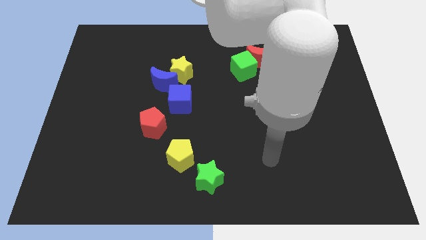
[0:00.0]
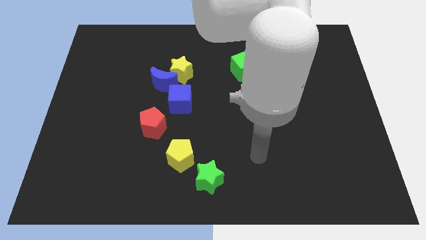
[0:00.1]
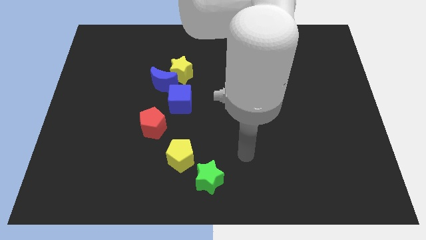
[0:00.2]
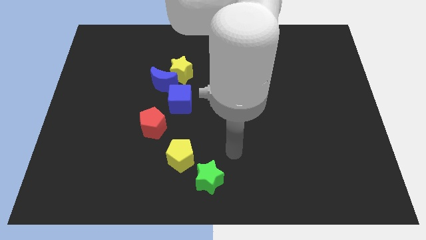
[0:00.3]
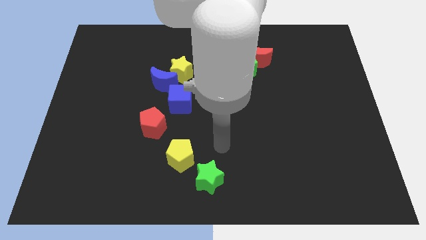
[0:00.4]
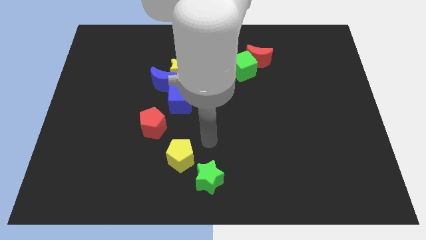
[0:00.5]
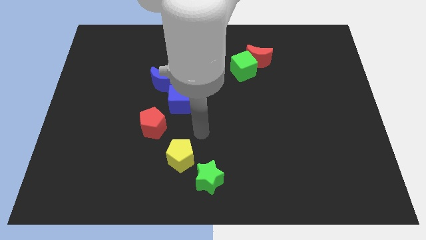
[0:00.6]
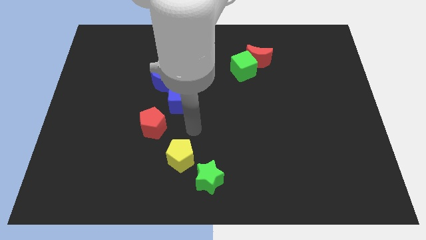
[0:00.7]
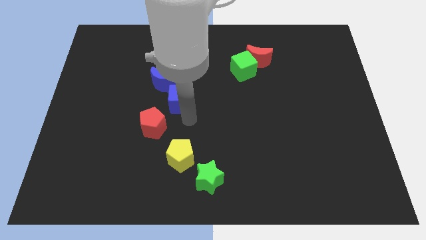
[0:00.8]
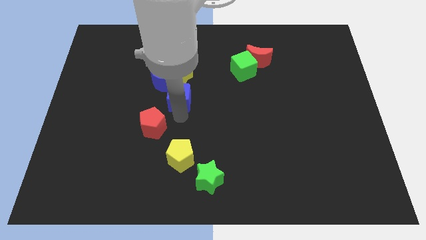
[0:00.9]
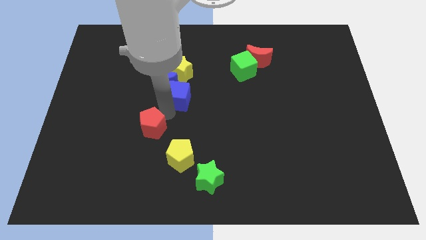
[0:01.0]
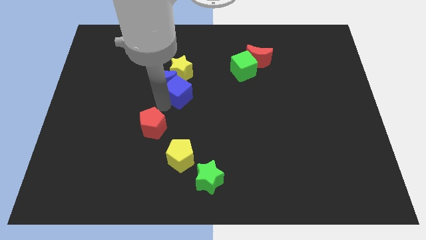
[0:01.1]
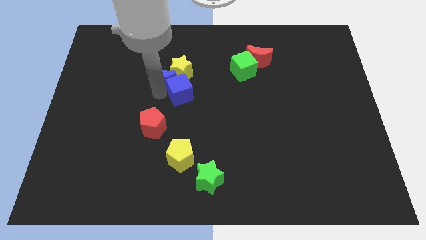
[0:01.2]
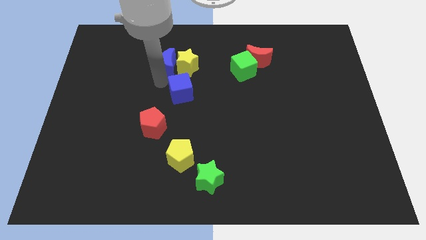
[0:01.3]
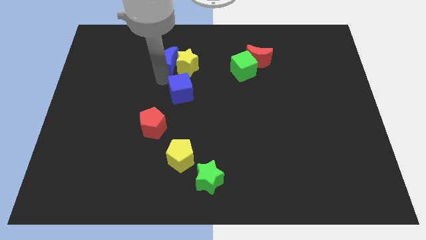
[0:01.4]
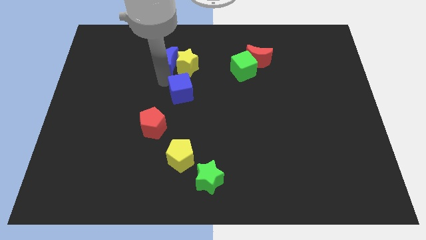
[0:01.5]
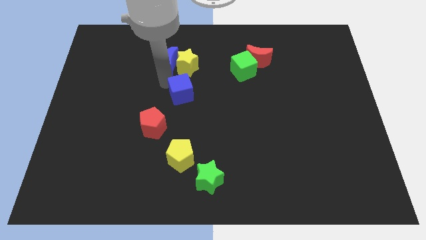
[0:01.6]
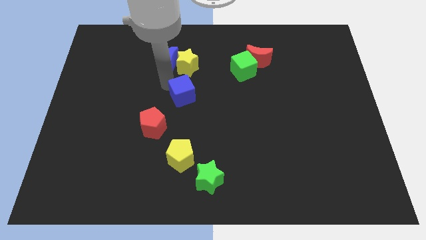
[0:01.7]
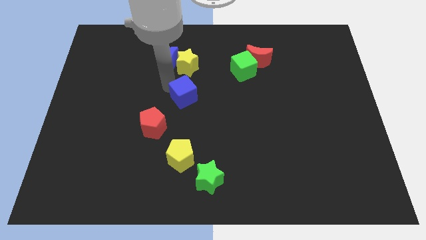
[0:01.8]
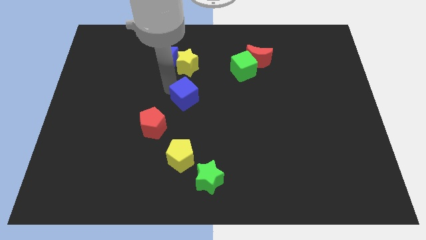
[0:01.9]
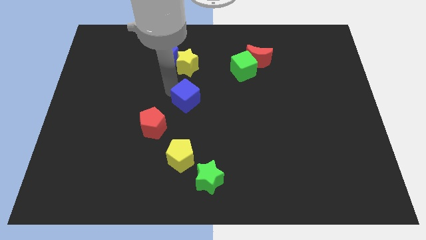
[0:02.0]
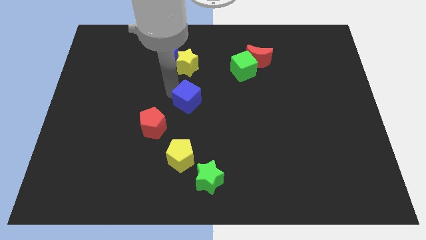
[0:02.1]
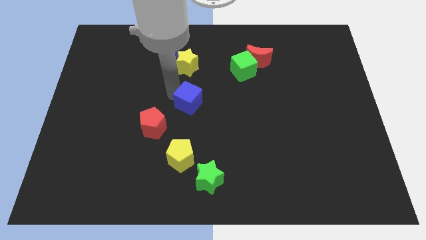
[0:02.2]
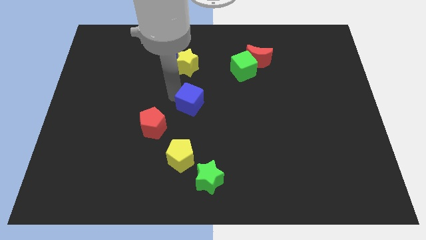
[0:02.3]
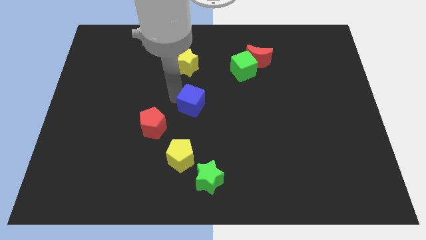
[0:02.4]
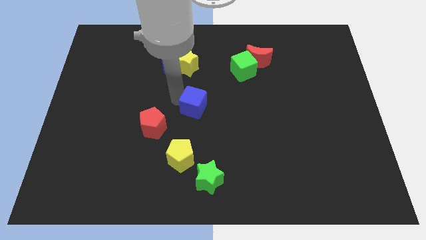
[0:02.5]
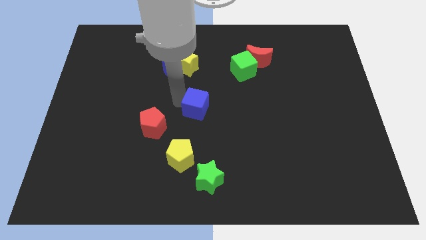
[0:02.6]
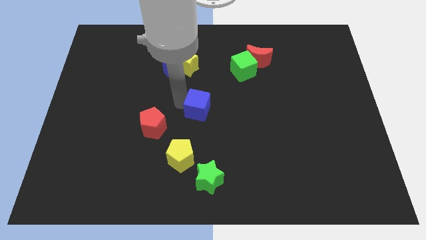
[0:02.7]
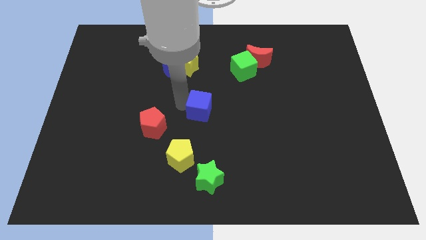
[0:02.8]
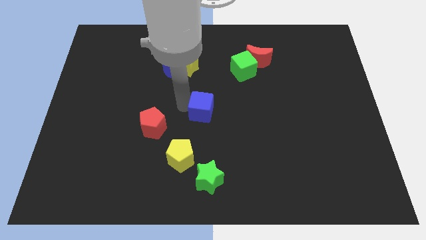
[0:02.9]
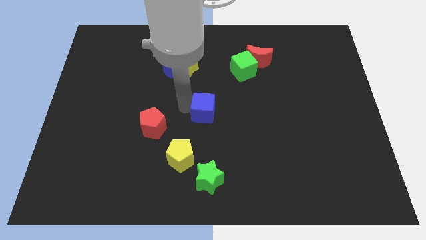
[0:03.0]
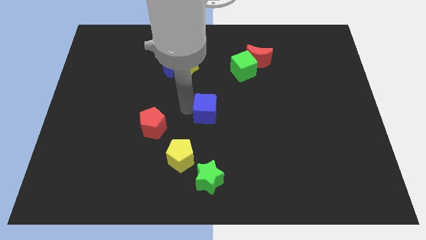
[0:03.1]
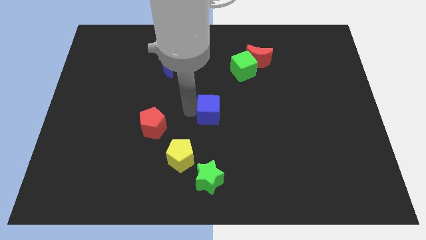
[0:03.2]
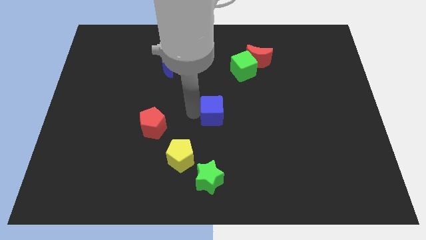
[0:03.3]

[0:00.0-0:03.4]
push the blue cube right slightly

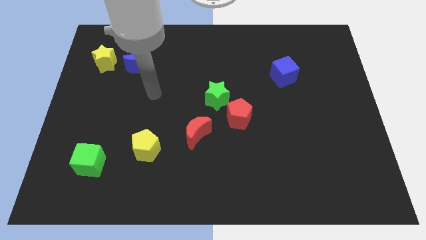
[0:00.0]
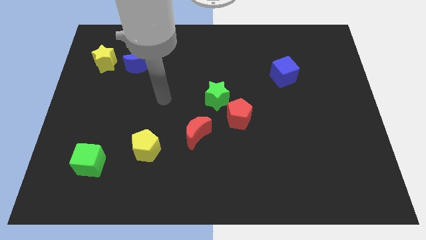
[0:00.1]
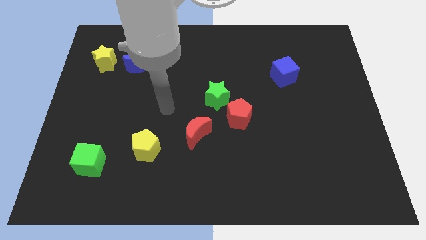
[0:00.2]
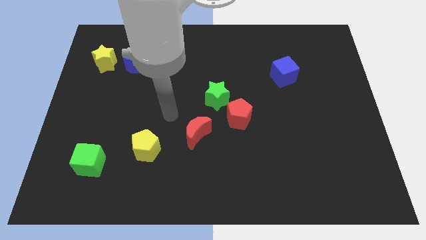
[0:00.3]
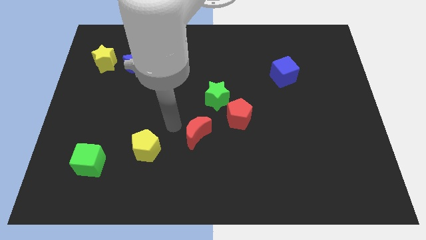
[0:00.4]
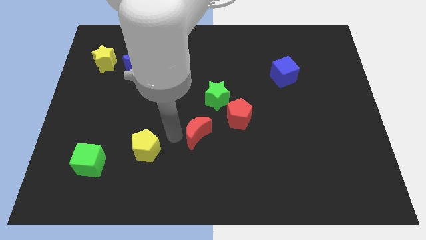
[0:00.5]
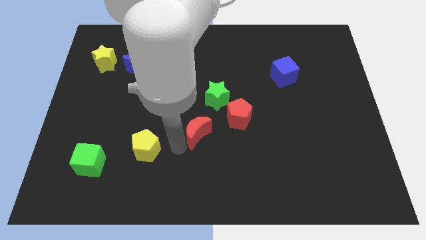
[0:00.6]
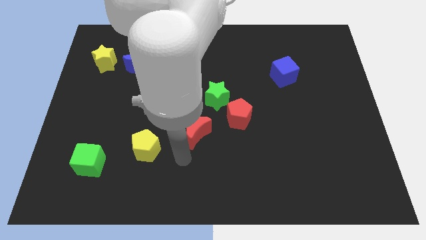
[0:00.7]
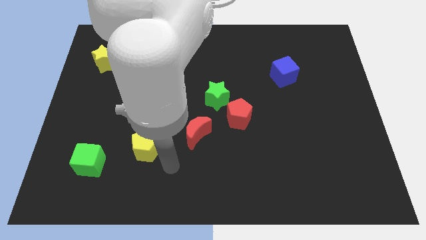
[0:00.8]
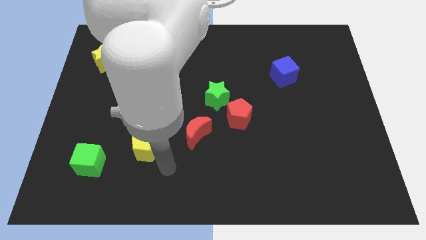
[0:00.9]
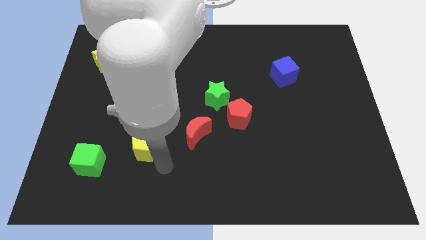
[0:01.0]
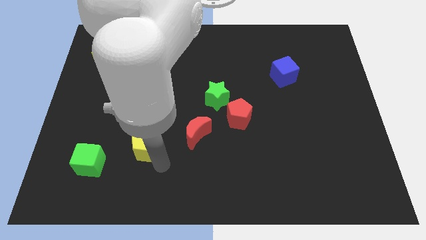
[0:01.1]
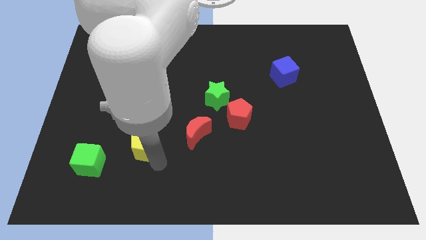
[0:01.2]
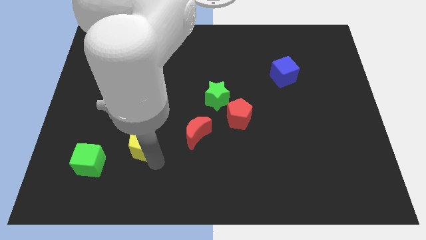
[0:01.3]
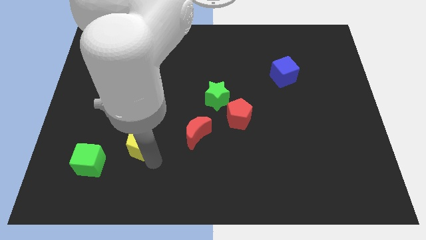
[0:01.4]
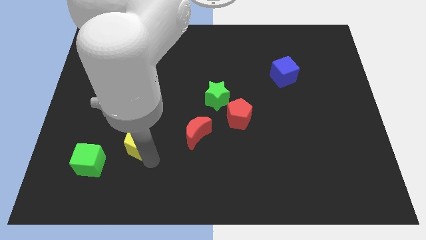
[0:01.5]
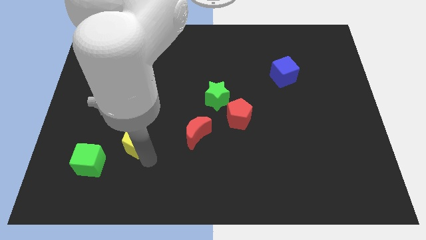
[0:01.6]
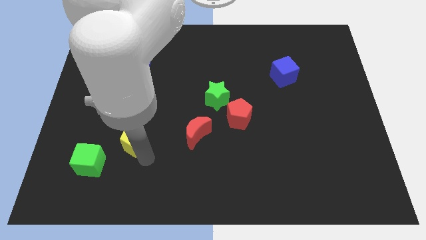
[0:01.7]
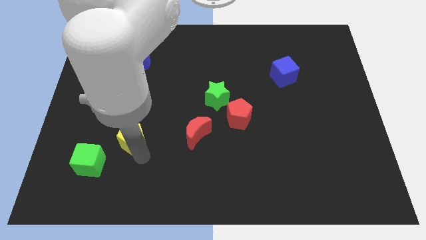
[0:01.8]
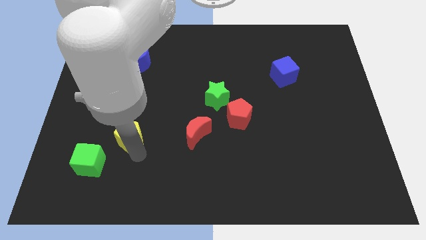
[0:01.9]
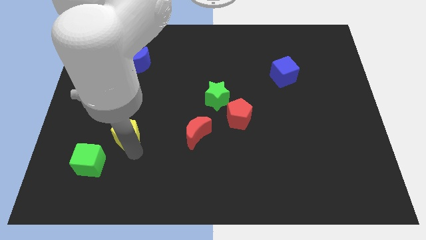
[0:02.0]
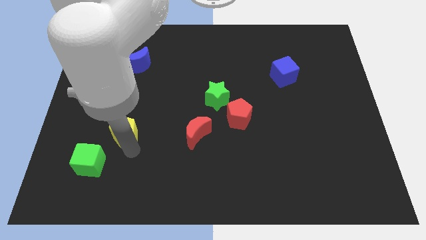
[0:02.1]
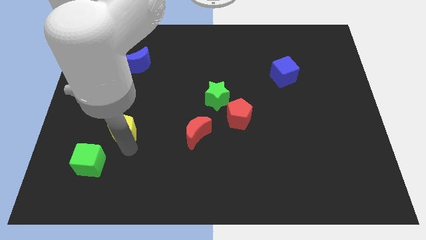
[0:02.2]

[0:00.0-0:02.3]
slide the yellow pentagon a little up and left

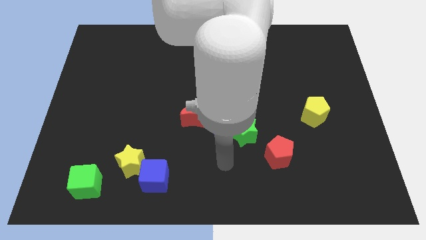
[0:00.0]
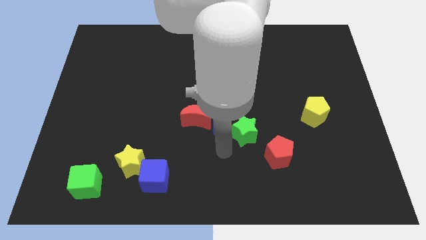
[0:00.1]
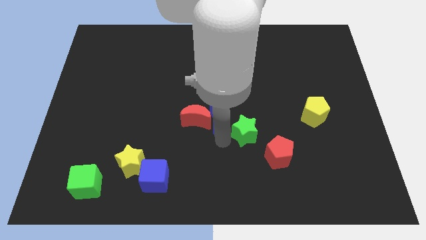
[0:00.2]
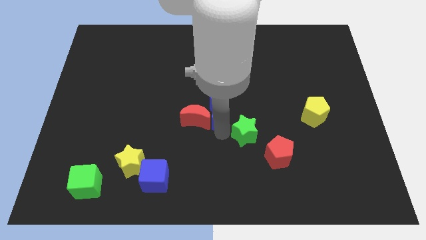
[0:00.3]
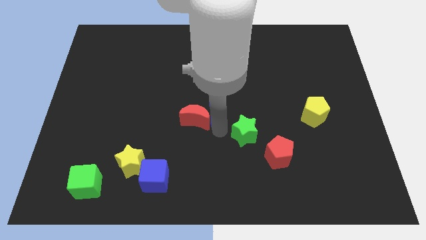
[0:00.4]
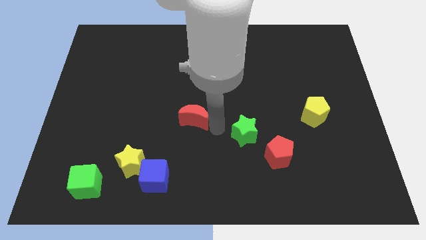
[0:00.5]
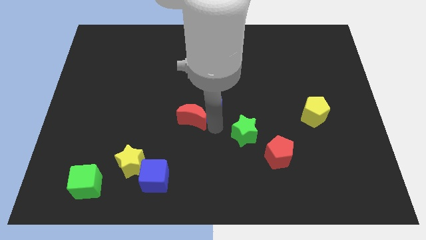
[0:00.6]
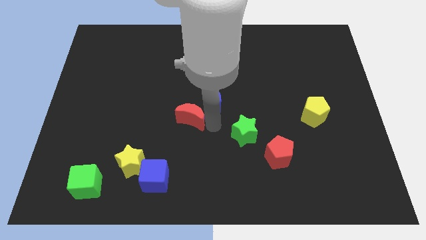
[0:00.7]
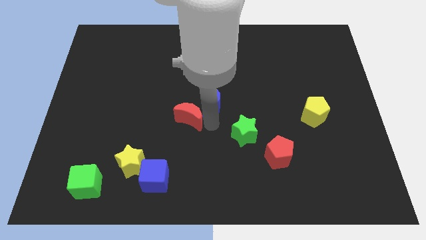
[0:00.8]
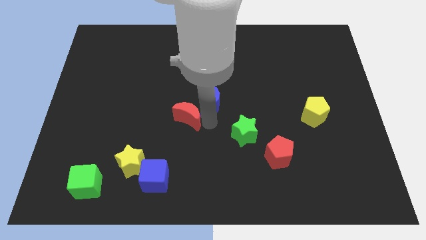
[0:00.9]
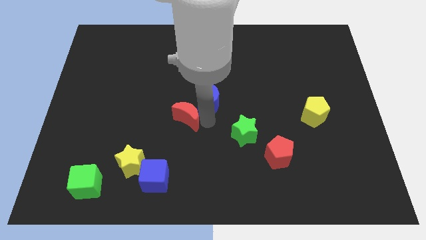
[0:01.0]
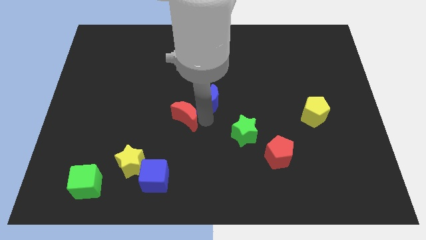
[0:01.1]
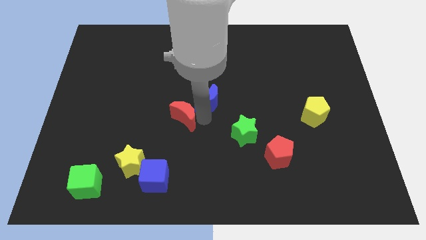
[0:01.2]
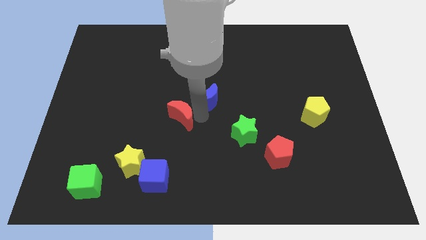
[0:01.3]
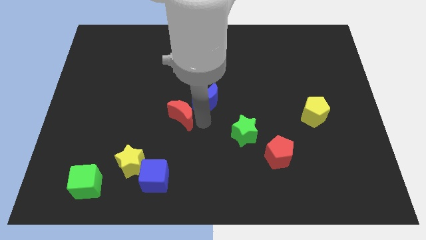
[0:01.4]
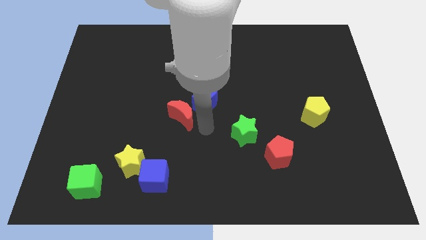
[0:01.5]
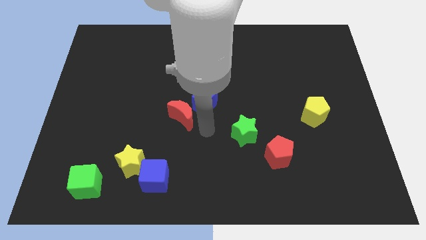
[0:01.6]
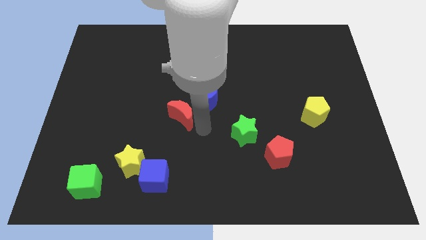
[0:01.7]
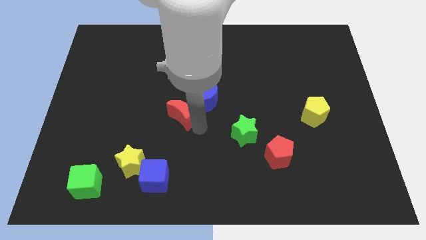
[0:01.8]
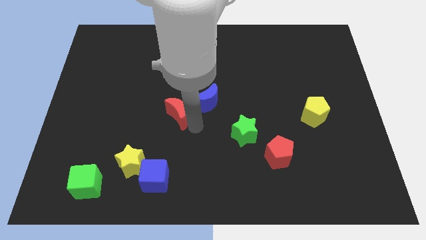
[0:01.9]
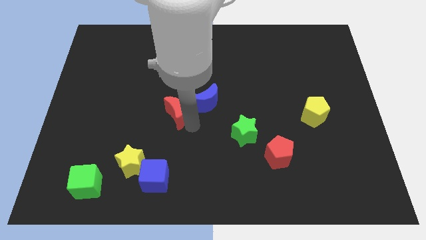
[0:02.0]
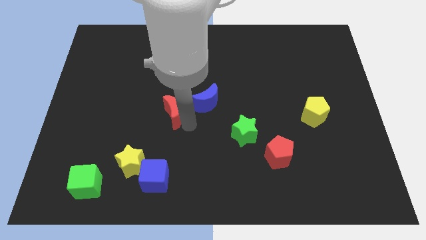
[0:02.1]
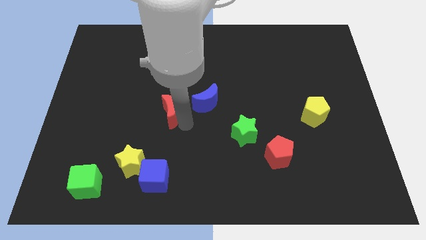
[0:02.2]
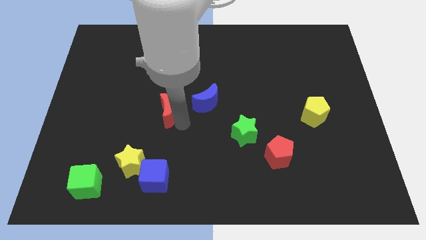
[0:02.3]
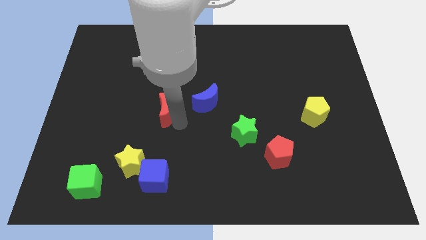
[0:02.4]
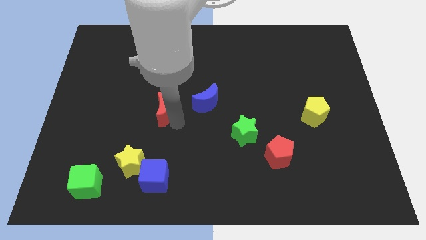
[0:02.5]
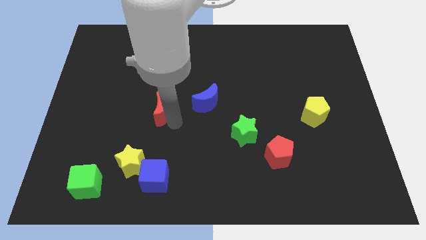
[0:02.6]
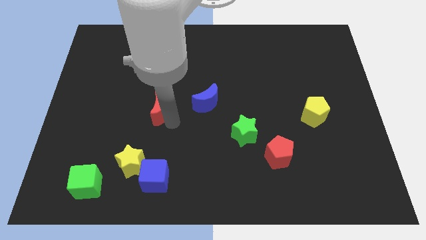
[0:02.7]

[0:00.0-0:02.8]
push the red moon upwards and left diagonally a little bit
